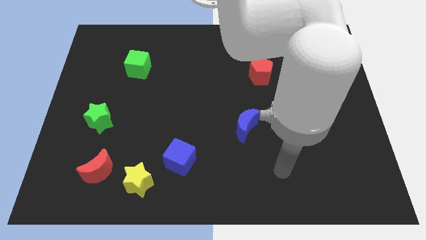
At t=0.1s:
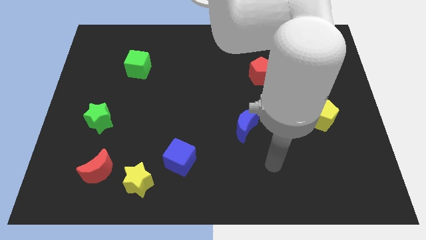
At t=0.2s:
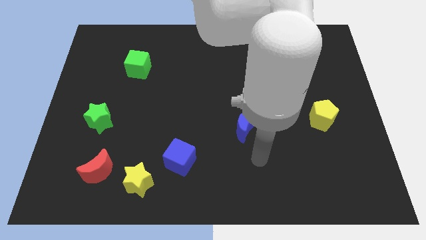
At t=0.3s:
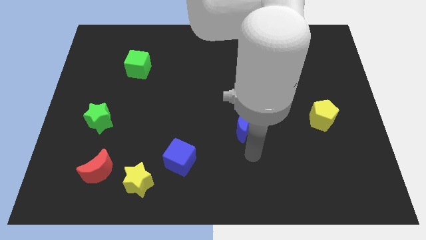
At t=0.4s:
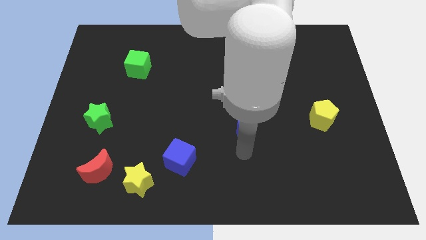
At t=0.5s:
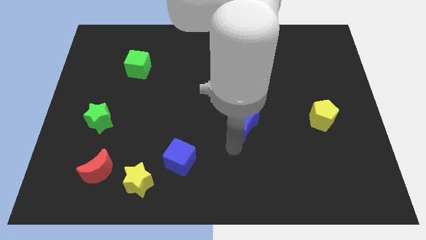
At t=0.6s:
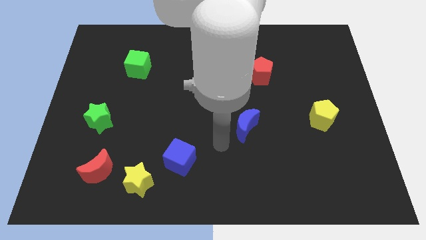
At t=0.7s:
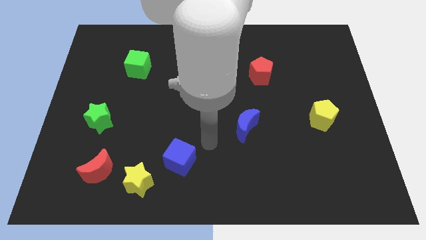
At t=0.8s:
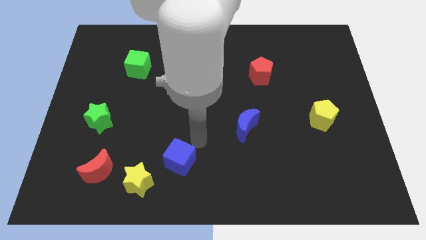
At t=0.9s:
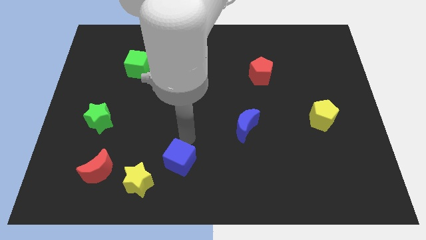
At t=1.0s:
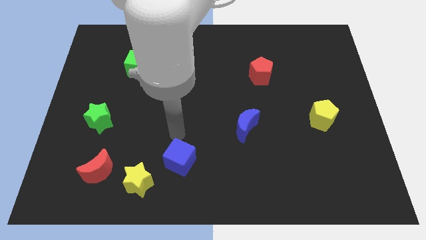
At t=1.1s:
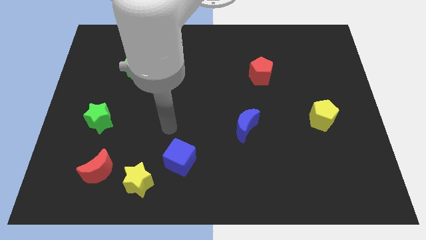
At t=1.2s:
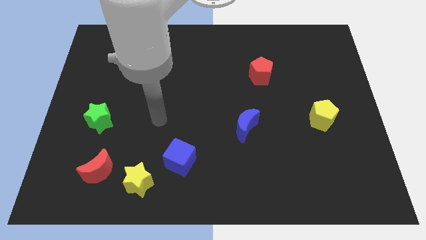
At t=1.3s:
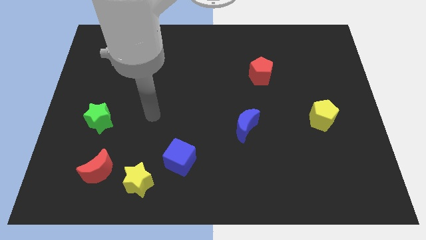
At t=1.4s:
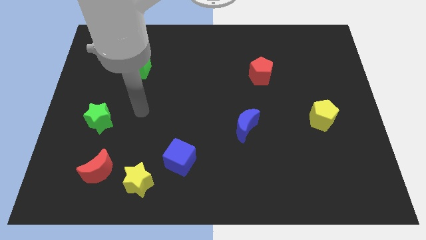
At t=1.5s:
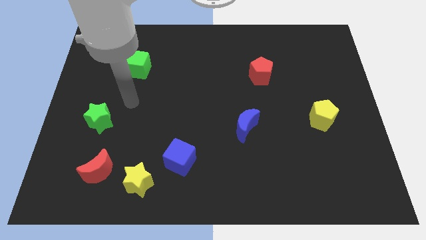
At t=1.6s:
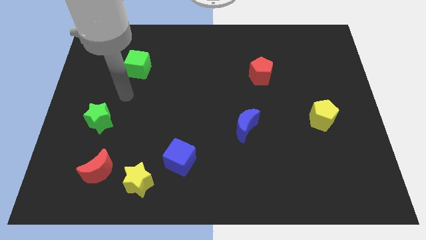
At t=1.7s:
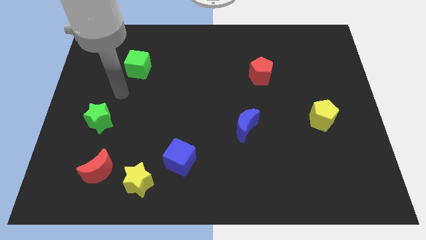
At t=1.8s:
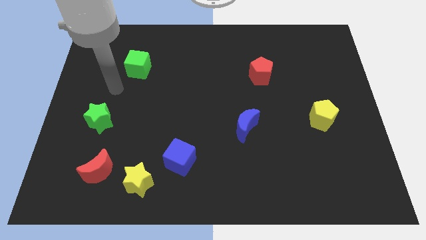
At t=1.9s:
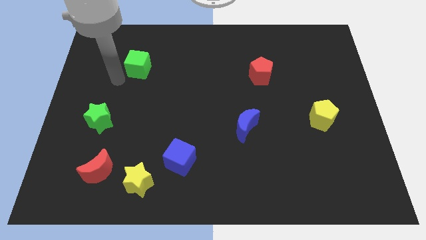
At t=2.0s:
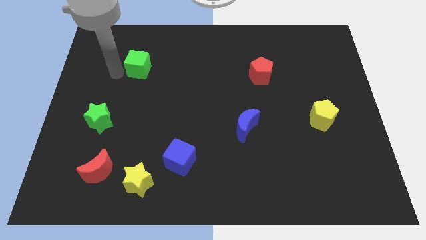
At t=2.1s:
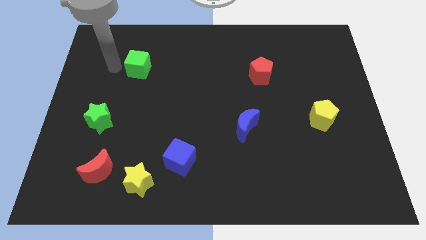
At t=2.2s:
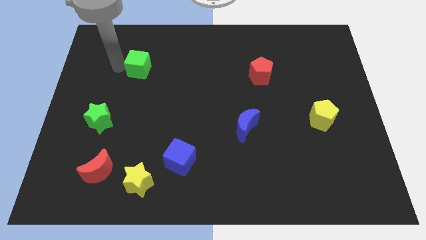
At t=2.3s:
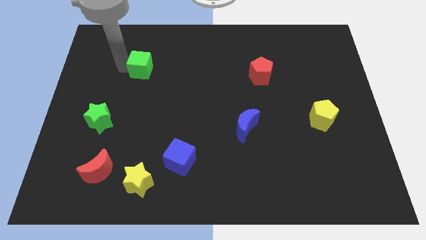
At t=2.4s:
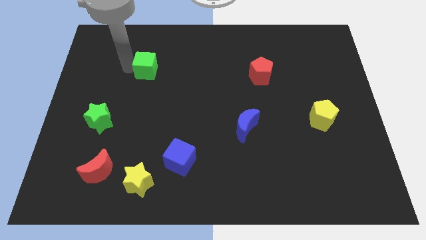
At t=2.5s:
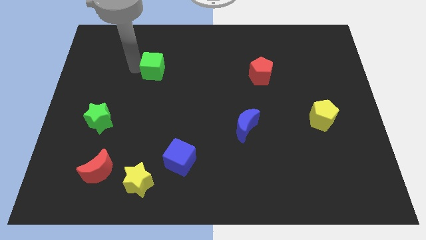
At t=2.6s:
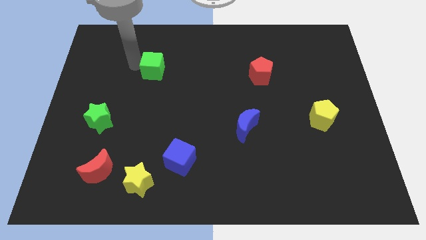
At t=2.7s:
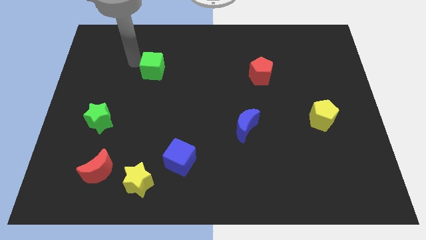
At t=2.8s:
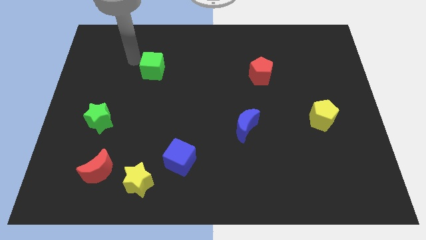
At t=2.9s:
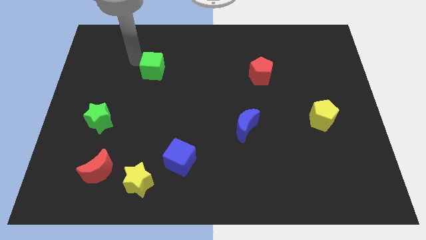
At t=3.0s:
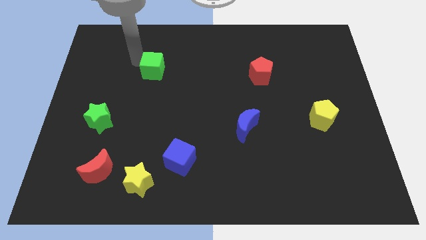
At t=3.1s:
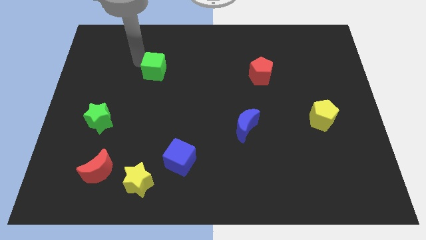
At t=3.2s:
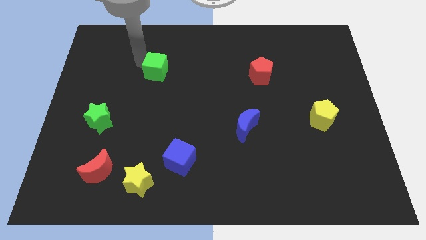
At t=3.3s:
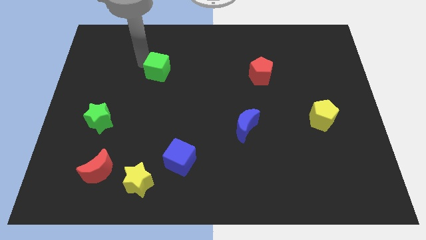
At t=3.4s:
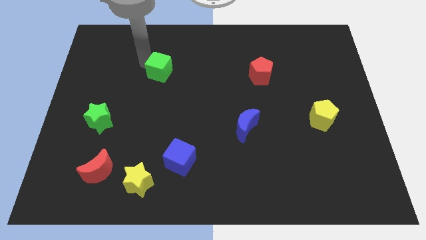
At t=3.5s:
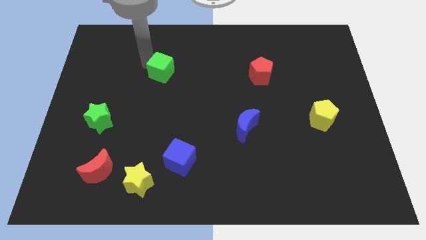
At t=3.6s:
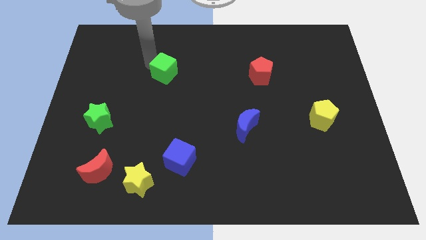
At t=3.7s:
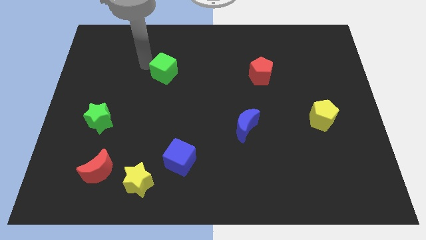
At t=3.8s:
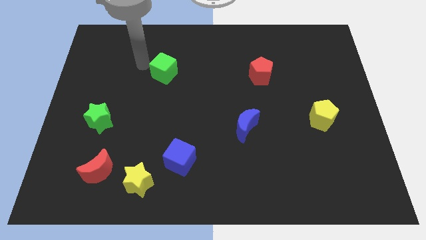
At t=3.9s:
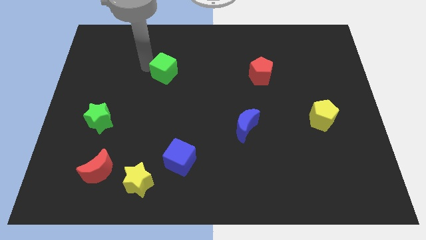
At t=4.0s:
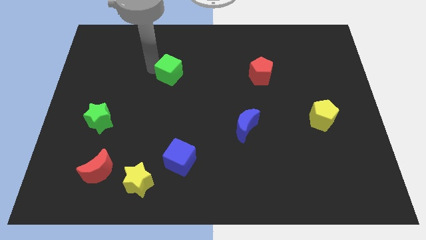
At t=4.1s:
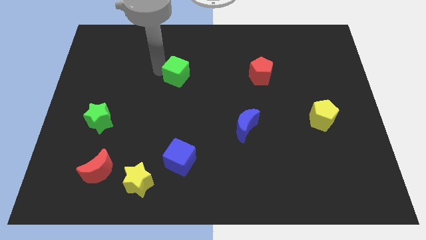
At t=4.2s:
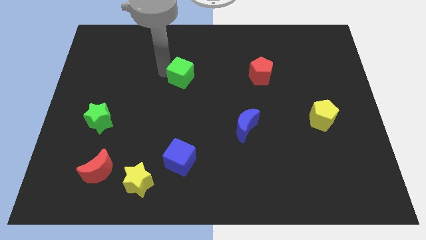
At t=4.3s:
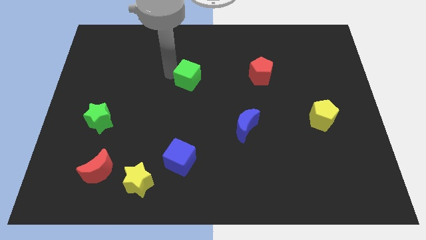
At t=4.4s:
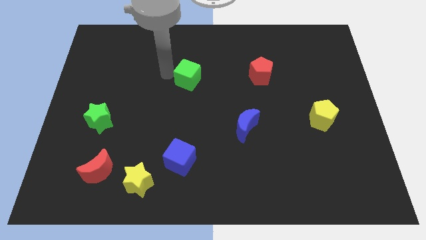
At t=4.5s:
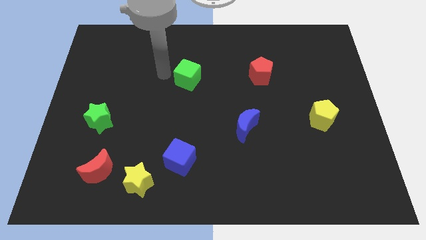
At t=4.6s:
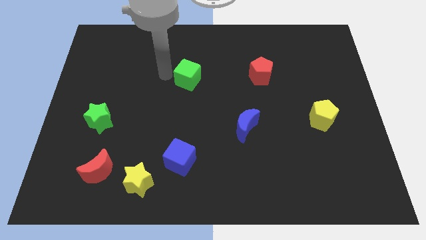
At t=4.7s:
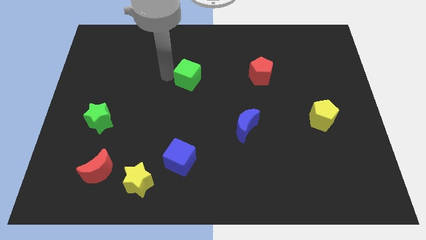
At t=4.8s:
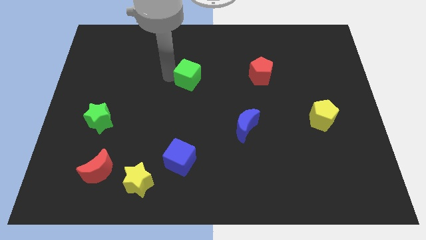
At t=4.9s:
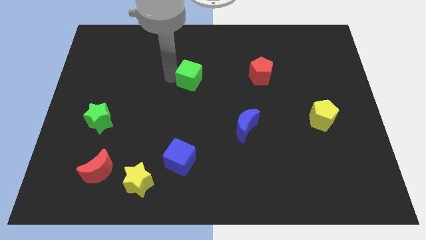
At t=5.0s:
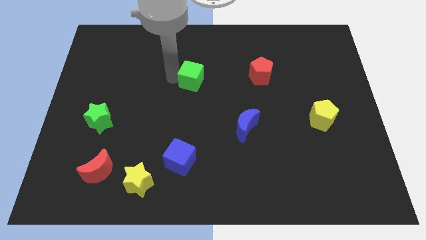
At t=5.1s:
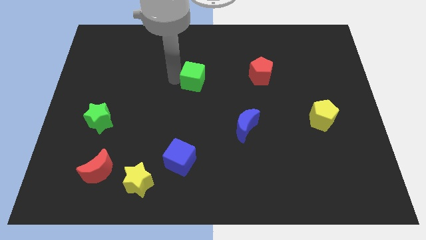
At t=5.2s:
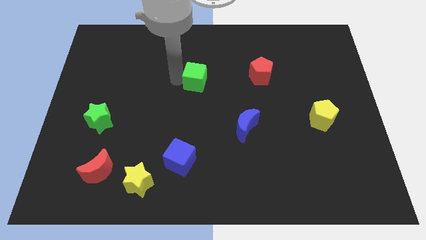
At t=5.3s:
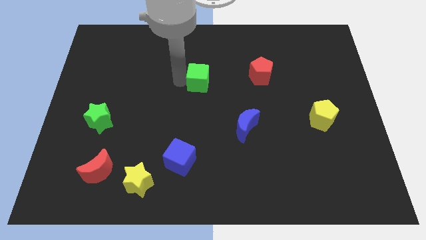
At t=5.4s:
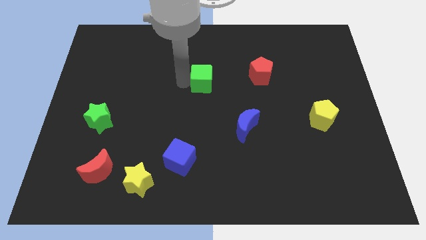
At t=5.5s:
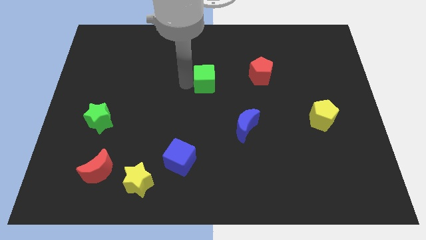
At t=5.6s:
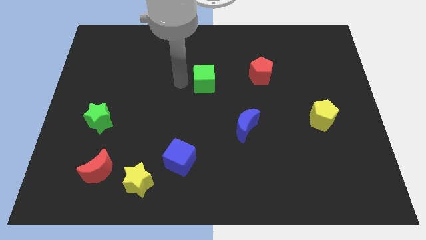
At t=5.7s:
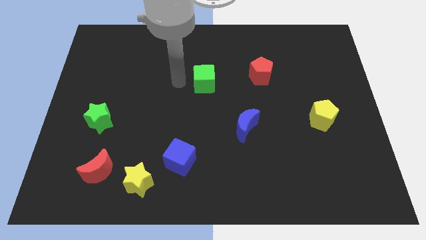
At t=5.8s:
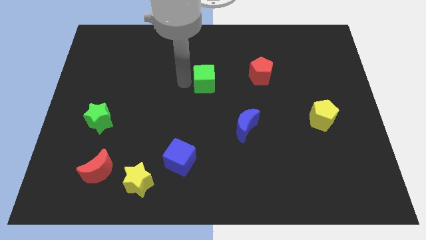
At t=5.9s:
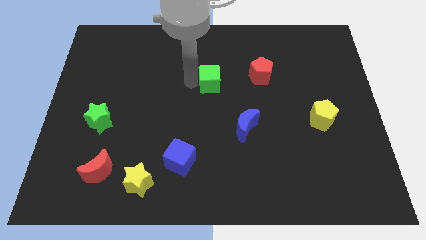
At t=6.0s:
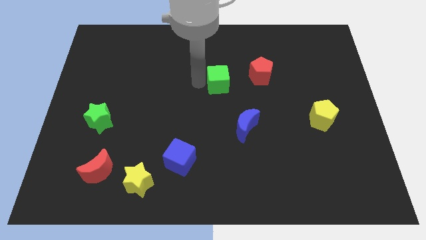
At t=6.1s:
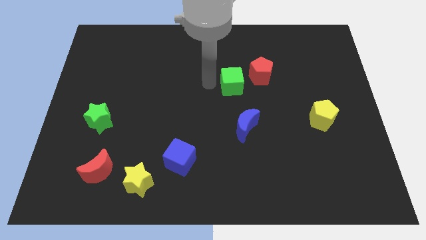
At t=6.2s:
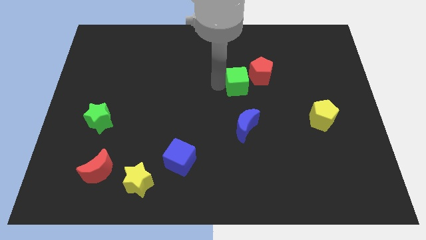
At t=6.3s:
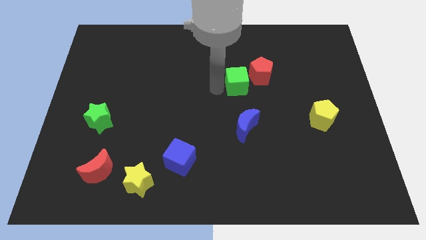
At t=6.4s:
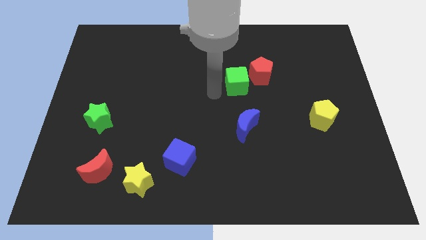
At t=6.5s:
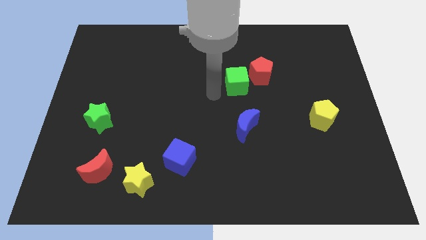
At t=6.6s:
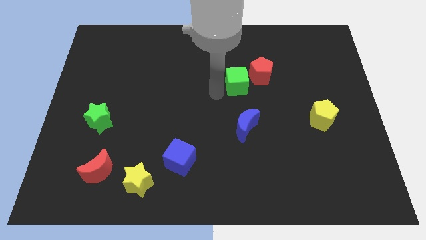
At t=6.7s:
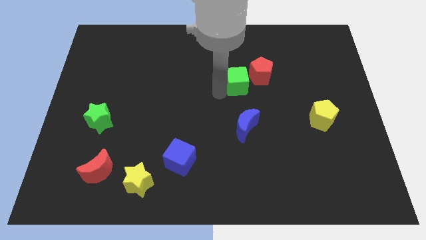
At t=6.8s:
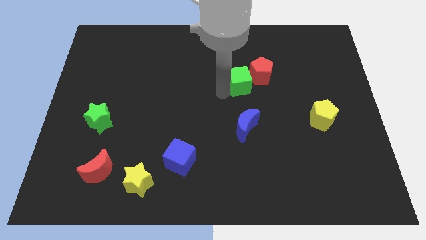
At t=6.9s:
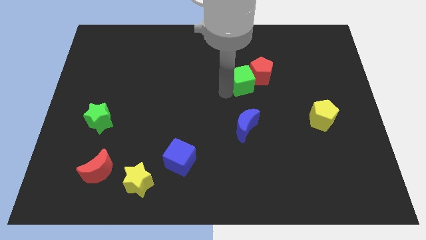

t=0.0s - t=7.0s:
push the green cube close to the red pentagon

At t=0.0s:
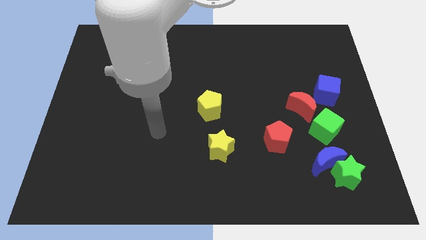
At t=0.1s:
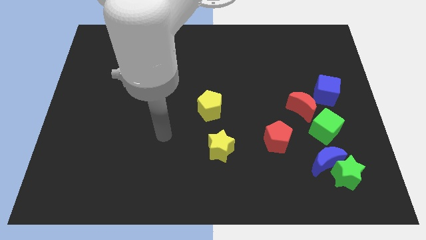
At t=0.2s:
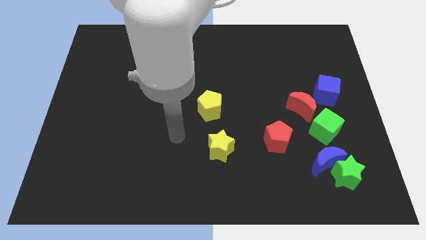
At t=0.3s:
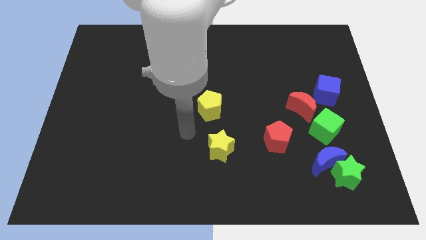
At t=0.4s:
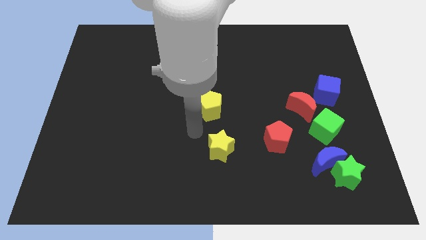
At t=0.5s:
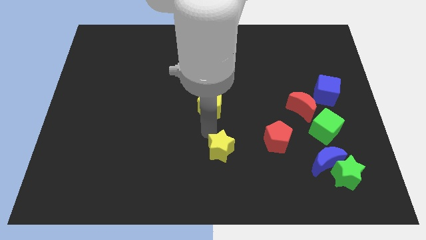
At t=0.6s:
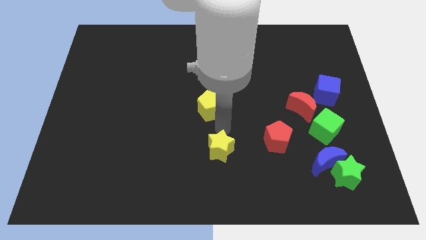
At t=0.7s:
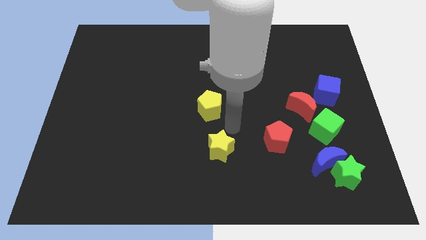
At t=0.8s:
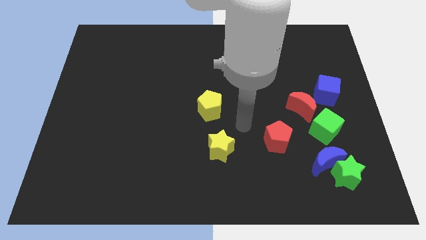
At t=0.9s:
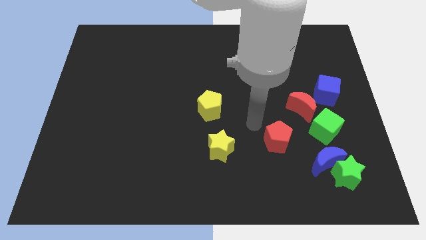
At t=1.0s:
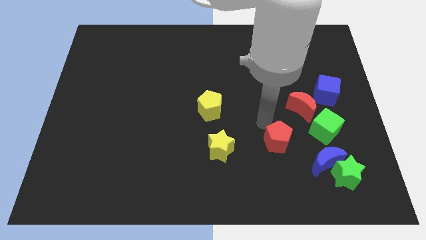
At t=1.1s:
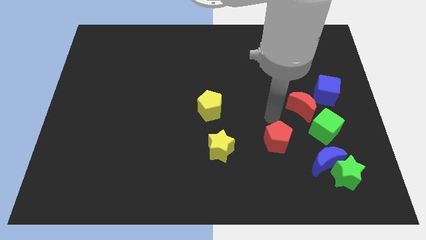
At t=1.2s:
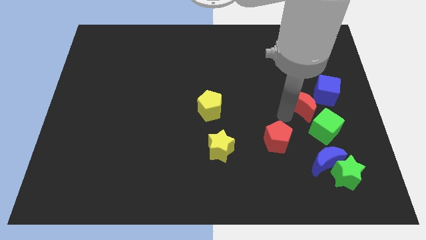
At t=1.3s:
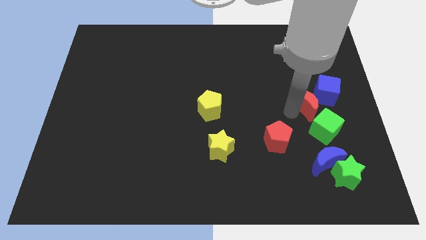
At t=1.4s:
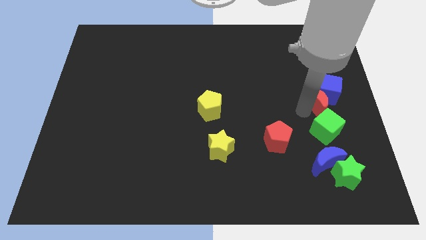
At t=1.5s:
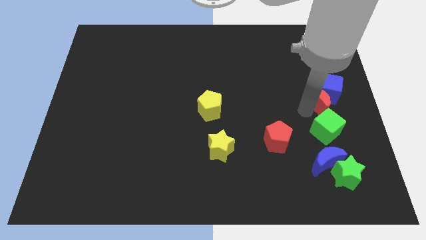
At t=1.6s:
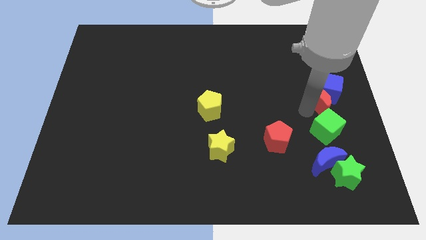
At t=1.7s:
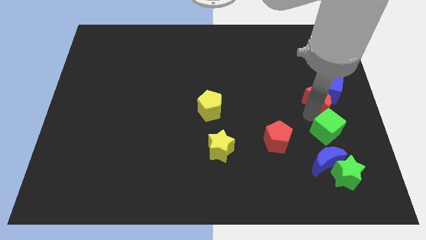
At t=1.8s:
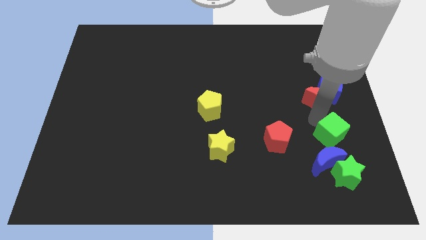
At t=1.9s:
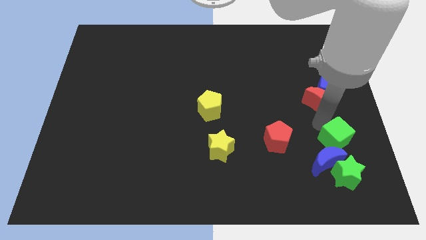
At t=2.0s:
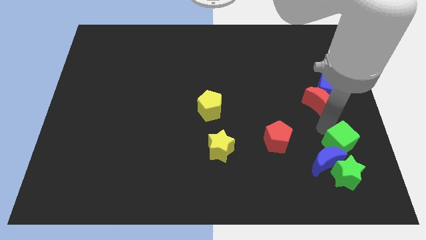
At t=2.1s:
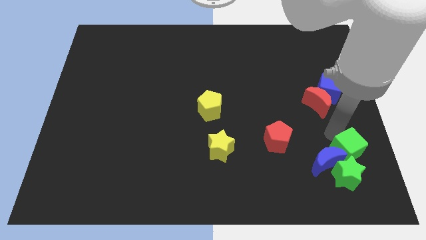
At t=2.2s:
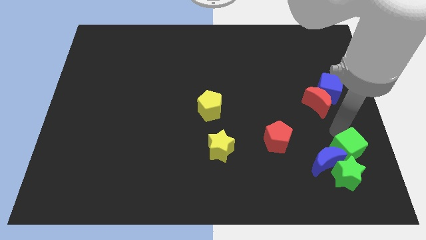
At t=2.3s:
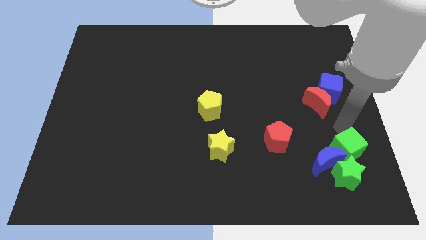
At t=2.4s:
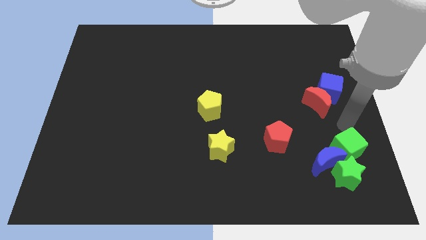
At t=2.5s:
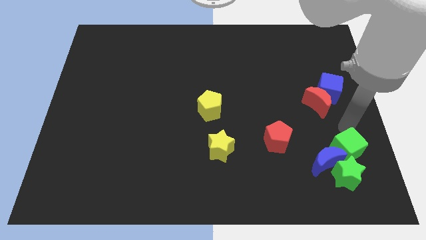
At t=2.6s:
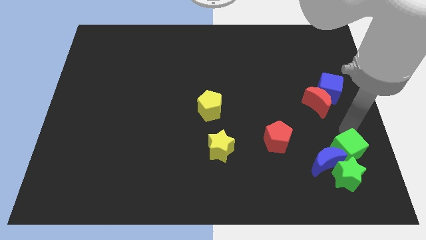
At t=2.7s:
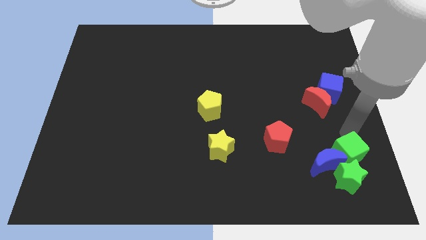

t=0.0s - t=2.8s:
push the green cube to the green star
